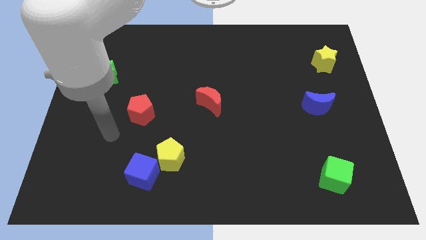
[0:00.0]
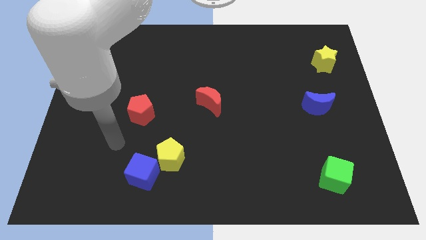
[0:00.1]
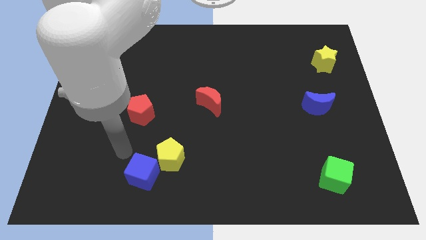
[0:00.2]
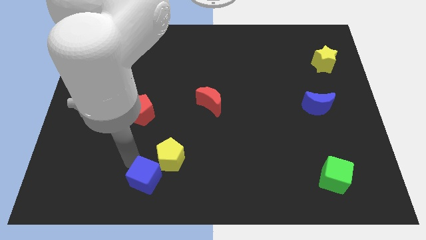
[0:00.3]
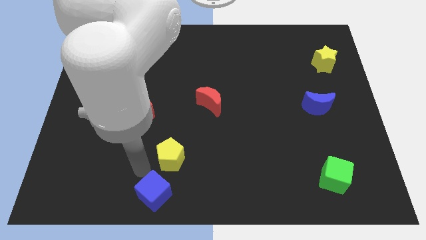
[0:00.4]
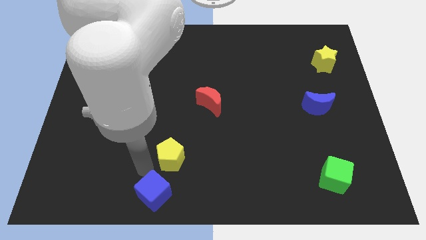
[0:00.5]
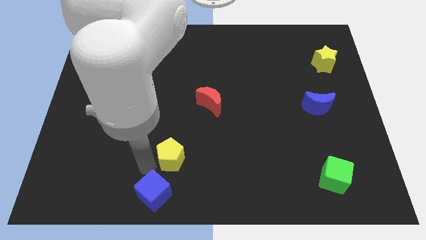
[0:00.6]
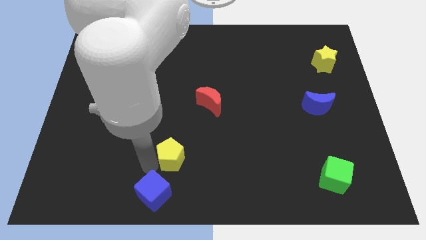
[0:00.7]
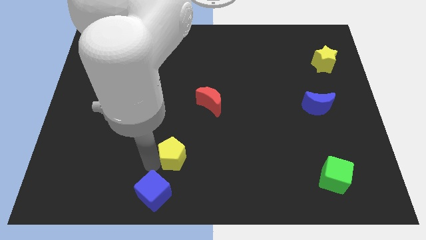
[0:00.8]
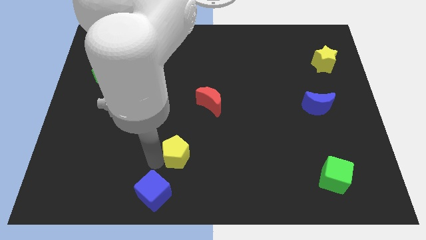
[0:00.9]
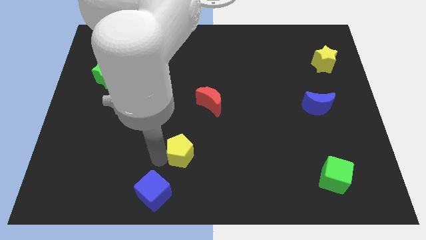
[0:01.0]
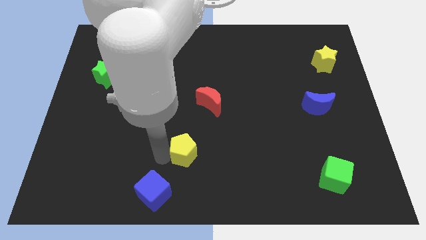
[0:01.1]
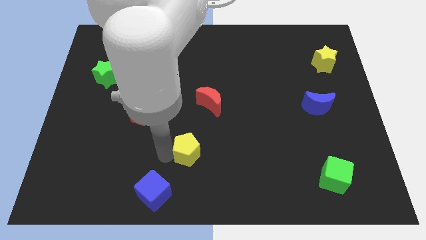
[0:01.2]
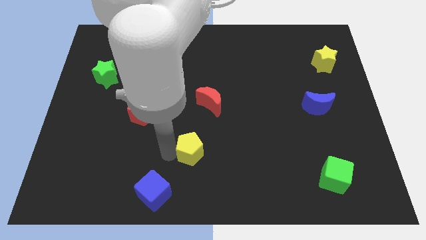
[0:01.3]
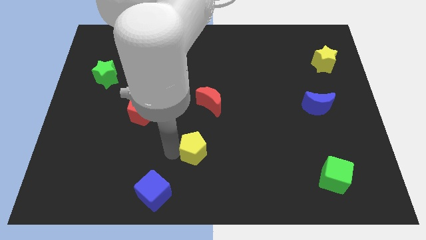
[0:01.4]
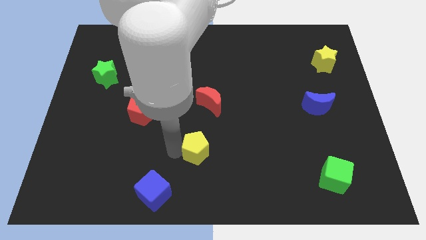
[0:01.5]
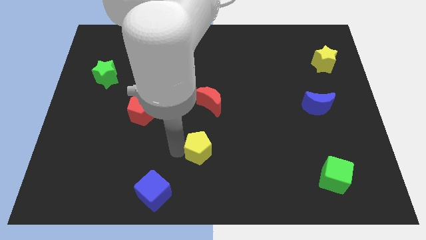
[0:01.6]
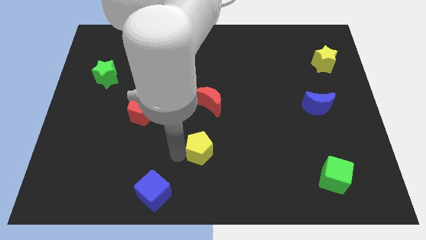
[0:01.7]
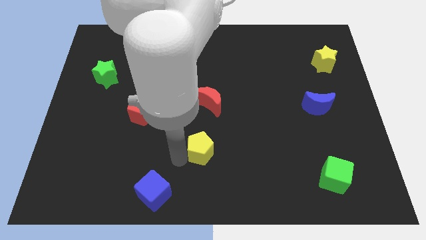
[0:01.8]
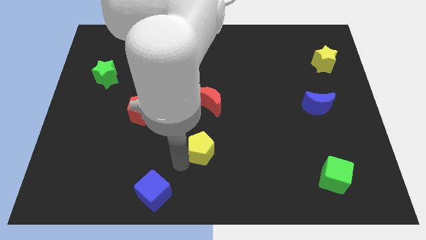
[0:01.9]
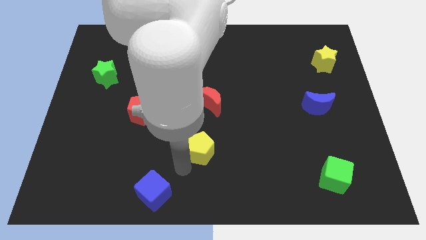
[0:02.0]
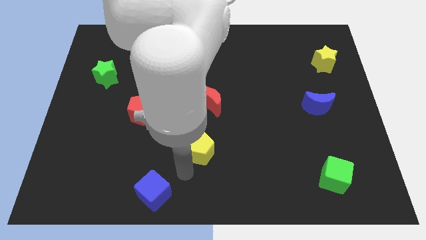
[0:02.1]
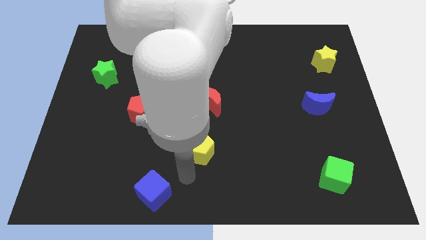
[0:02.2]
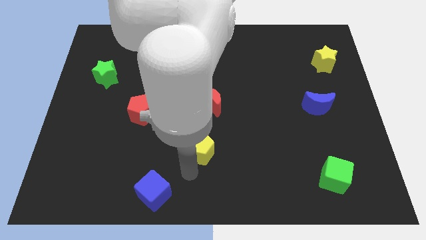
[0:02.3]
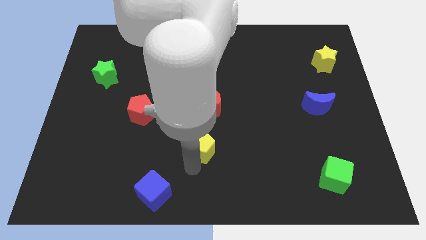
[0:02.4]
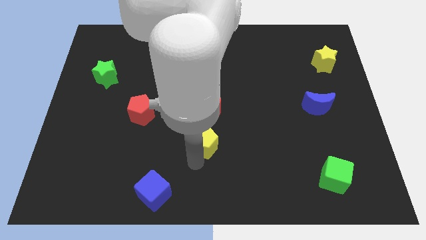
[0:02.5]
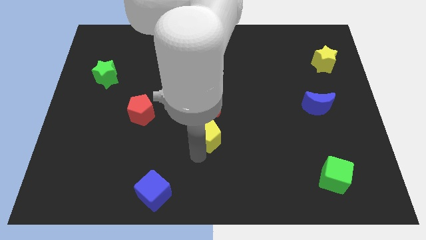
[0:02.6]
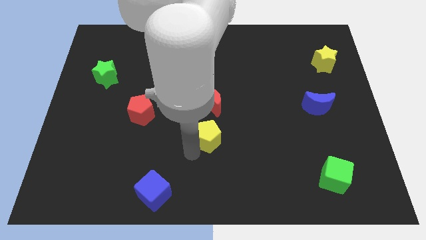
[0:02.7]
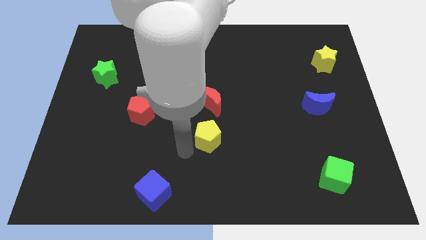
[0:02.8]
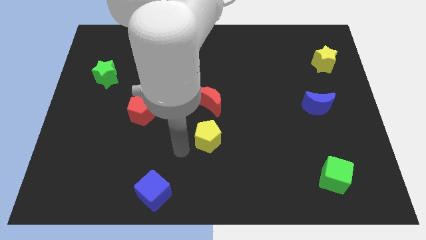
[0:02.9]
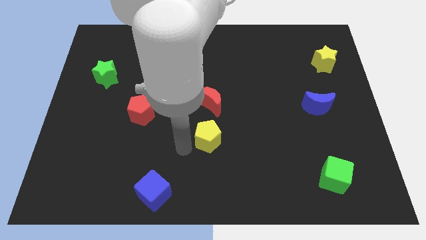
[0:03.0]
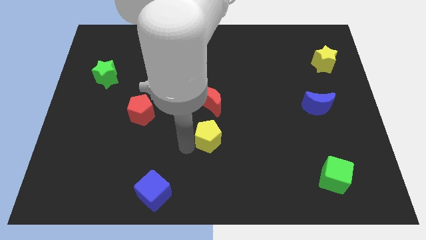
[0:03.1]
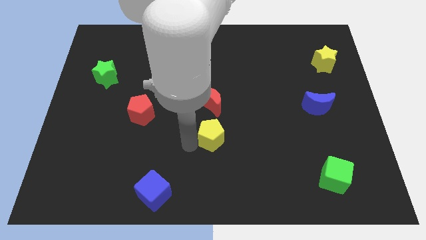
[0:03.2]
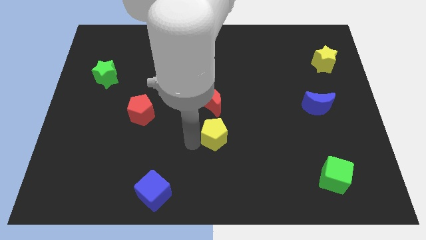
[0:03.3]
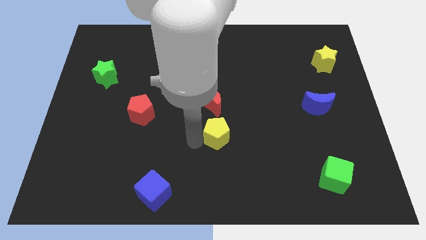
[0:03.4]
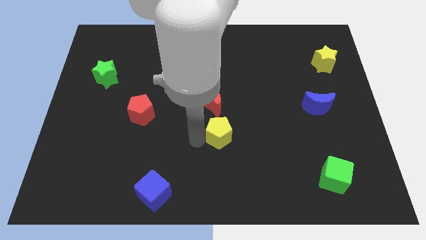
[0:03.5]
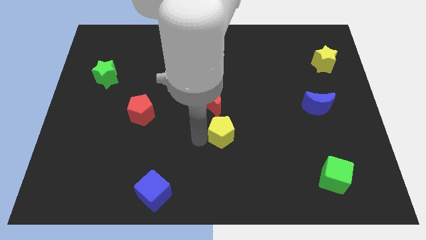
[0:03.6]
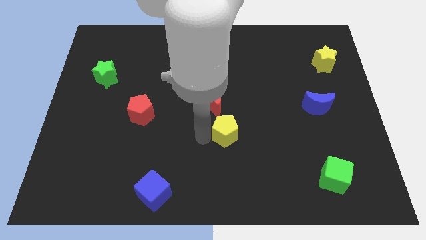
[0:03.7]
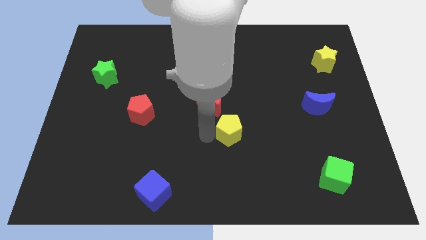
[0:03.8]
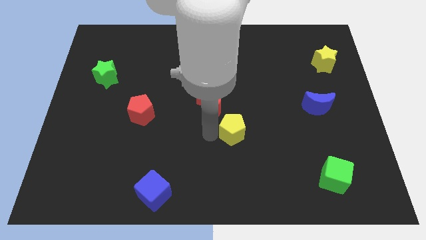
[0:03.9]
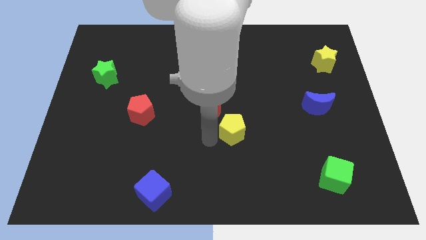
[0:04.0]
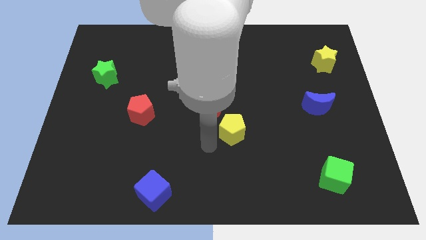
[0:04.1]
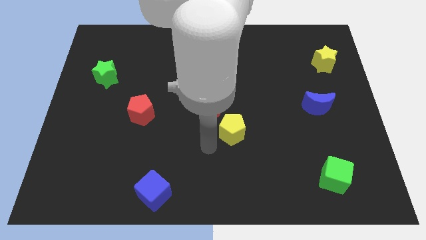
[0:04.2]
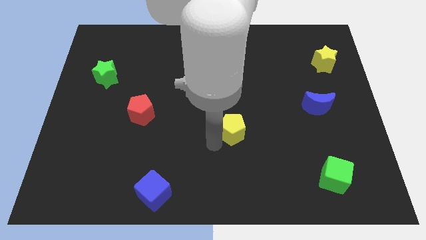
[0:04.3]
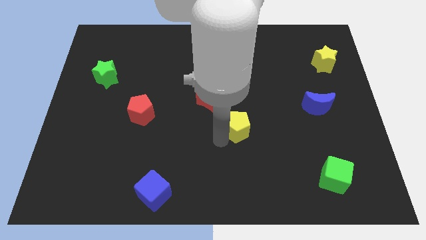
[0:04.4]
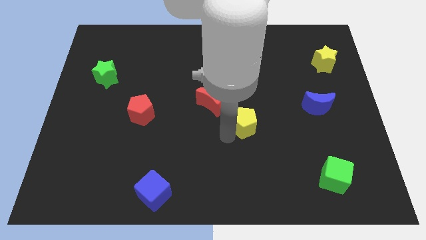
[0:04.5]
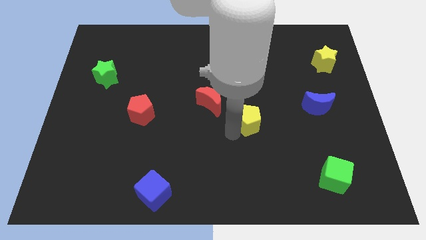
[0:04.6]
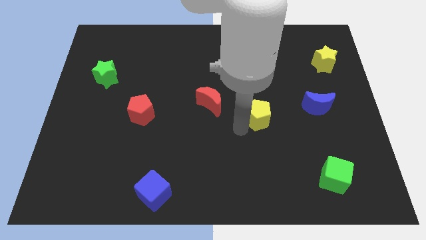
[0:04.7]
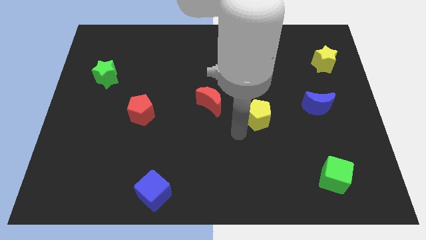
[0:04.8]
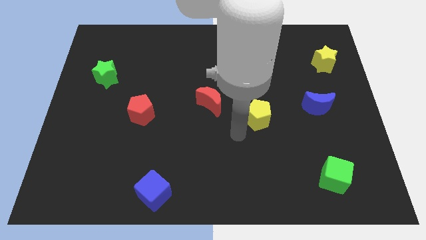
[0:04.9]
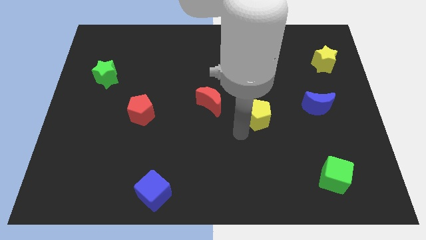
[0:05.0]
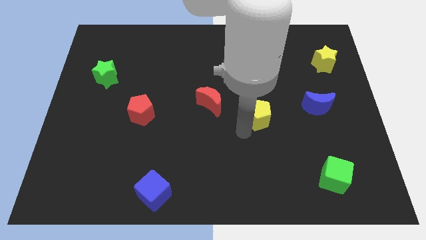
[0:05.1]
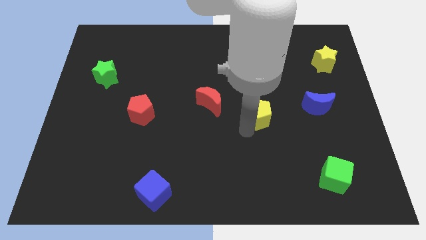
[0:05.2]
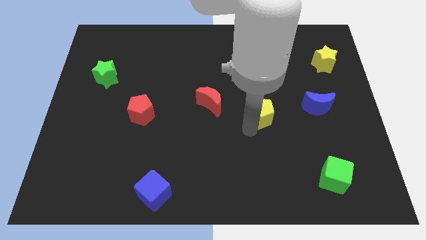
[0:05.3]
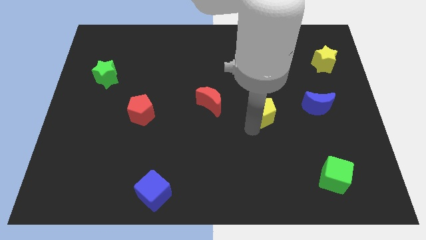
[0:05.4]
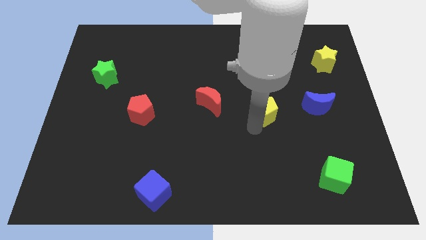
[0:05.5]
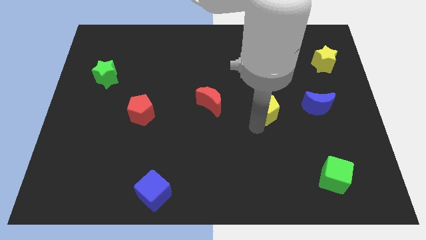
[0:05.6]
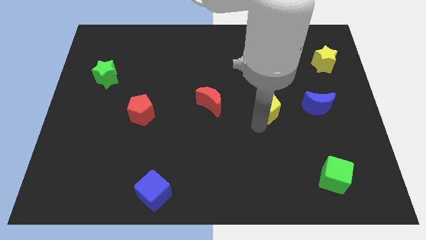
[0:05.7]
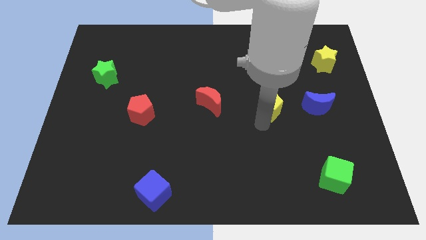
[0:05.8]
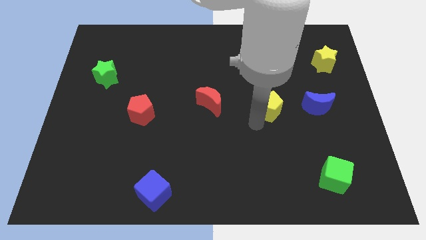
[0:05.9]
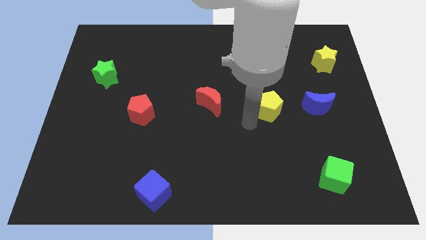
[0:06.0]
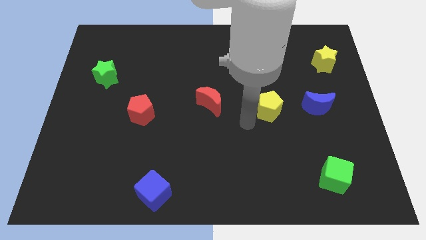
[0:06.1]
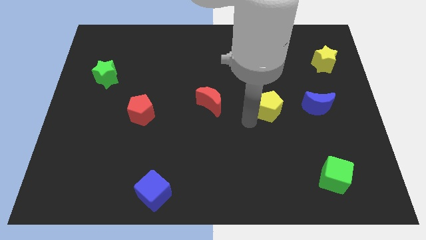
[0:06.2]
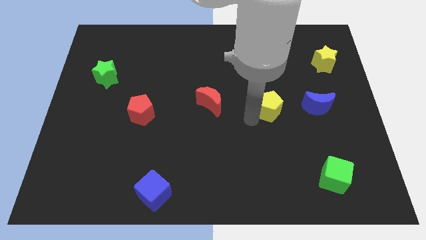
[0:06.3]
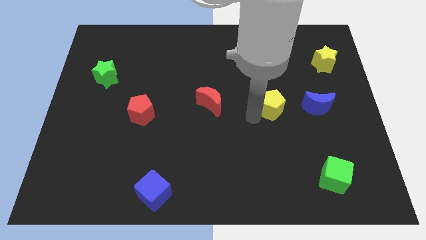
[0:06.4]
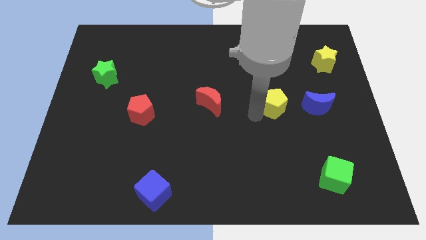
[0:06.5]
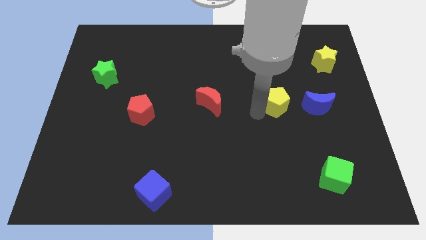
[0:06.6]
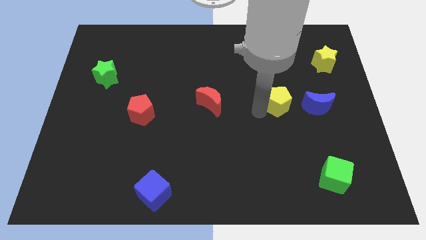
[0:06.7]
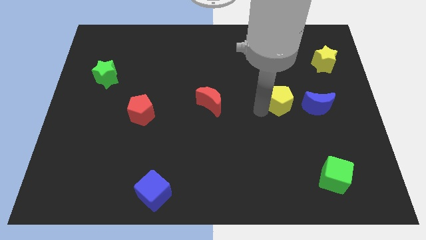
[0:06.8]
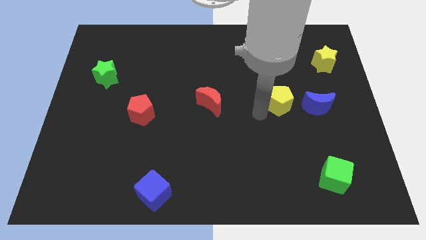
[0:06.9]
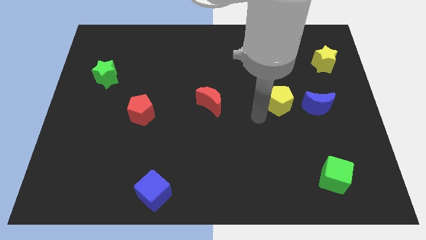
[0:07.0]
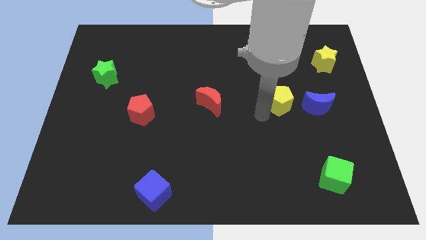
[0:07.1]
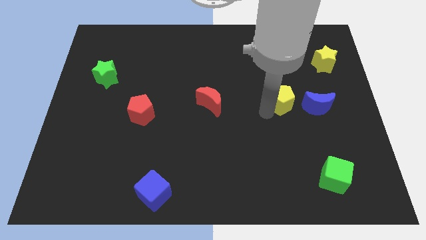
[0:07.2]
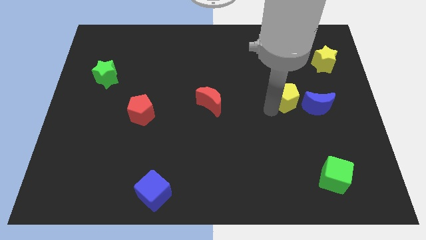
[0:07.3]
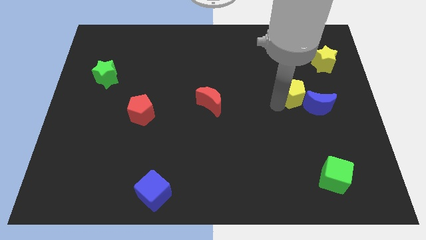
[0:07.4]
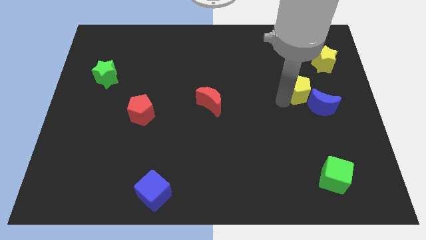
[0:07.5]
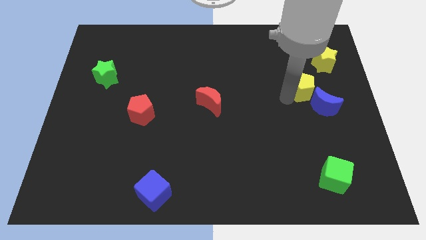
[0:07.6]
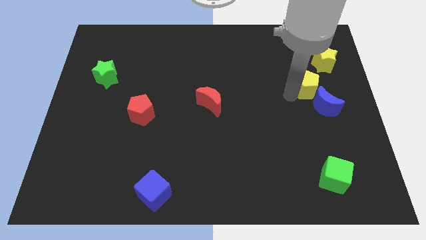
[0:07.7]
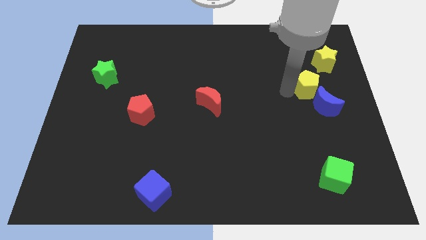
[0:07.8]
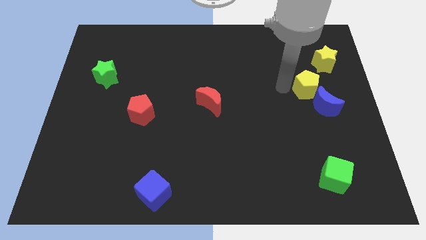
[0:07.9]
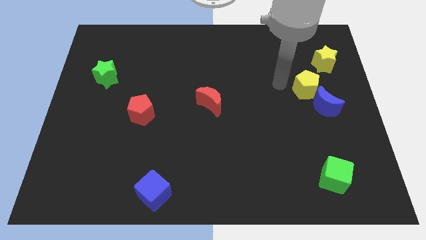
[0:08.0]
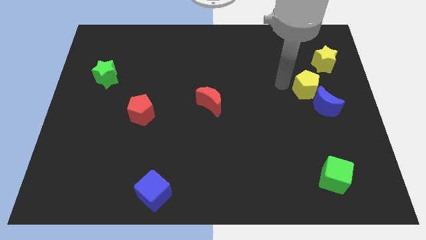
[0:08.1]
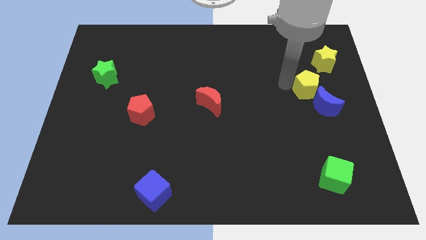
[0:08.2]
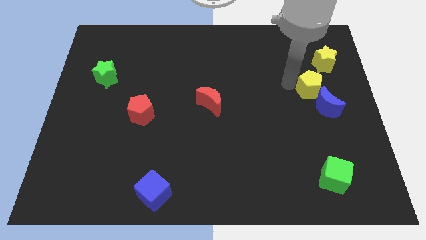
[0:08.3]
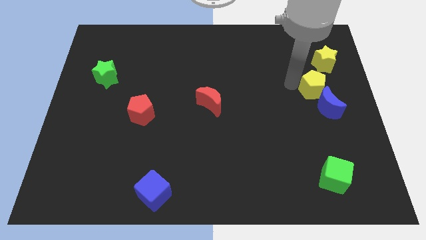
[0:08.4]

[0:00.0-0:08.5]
slide the yellow pentagon to the bottom side of the yellow star
